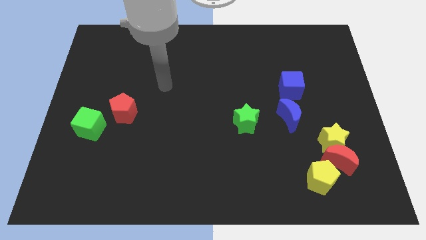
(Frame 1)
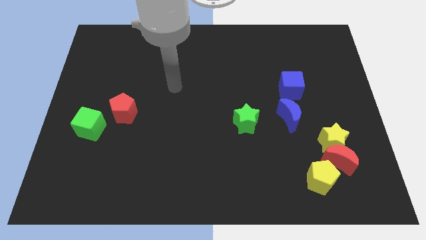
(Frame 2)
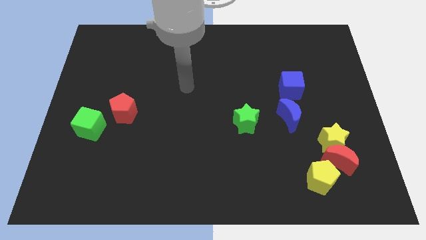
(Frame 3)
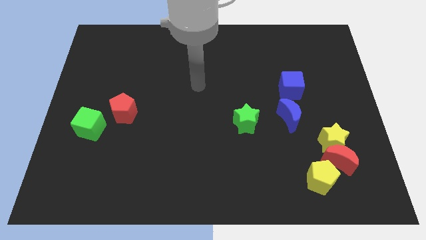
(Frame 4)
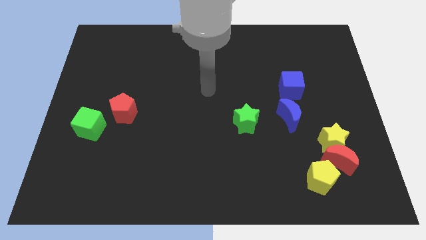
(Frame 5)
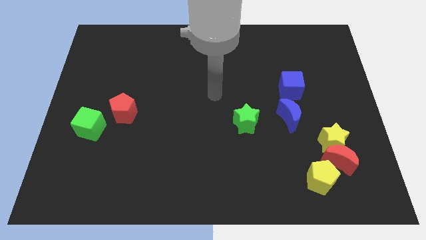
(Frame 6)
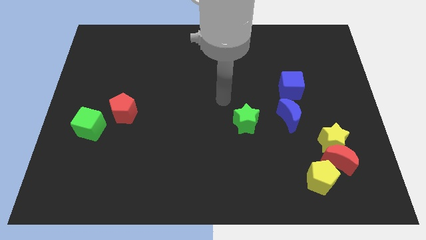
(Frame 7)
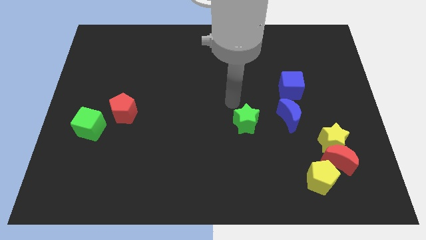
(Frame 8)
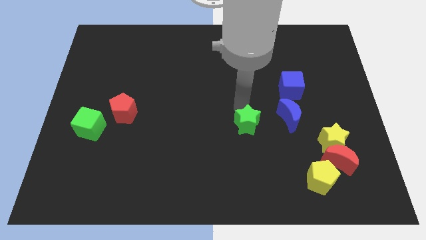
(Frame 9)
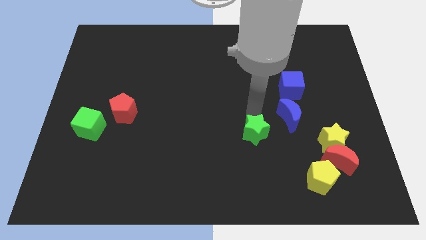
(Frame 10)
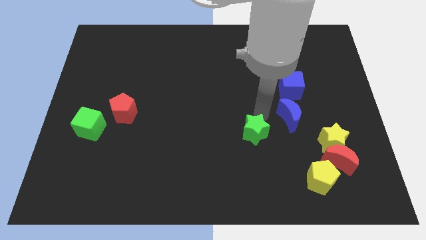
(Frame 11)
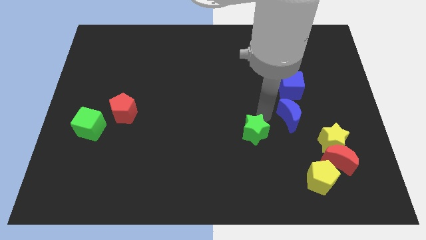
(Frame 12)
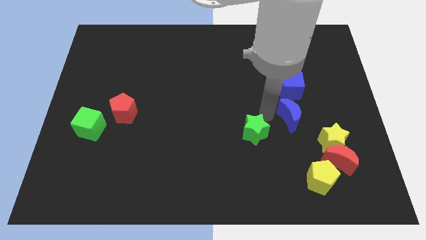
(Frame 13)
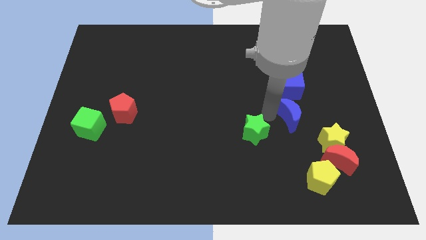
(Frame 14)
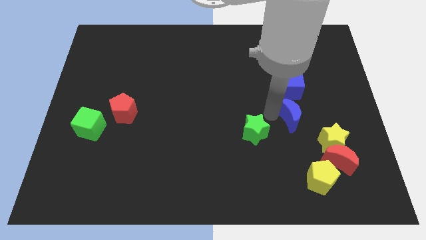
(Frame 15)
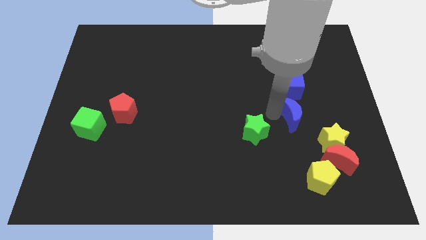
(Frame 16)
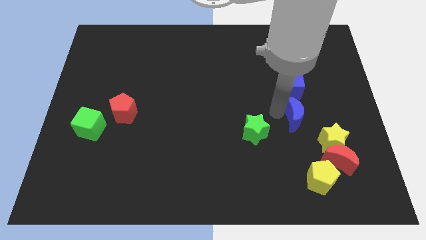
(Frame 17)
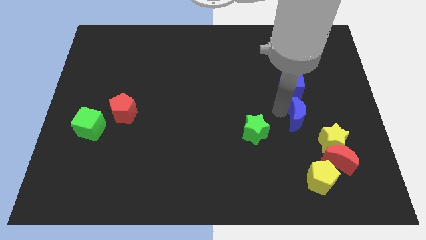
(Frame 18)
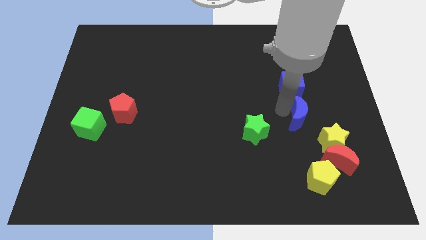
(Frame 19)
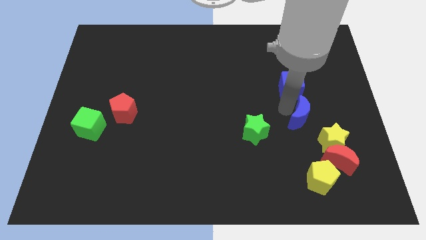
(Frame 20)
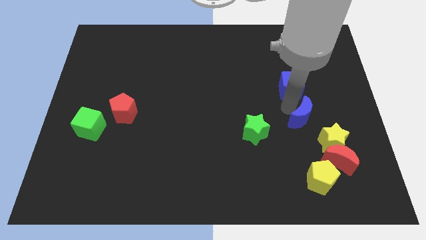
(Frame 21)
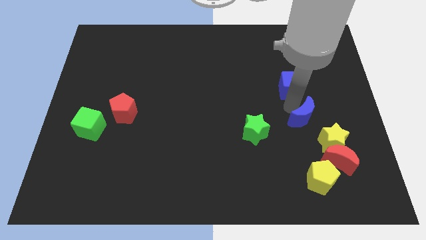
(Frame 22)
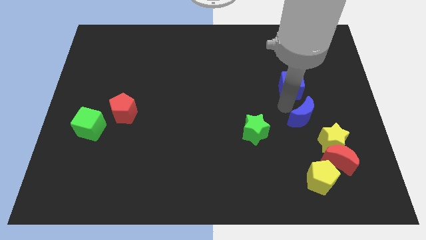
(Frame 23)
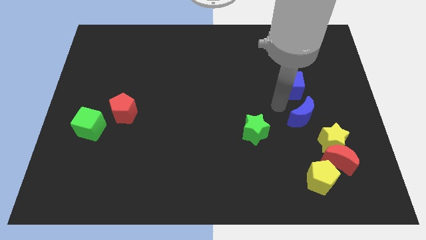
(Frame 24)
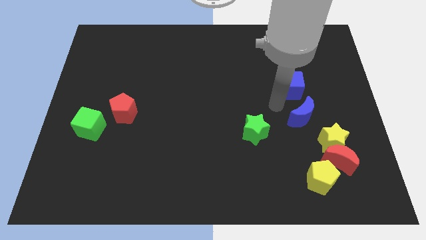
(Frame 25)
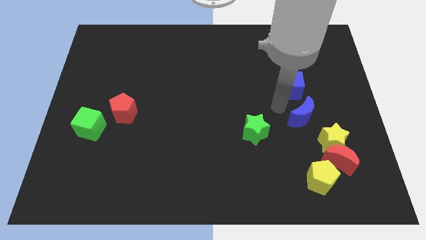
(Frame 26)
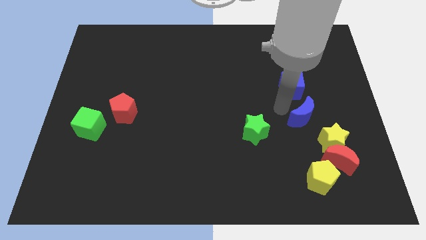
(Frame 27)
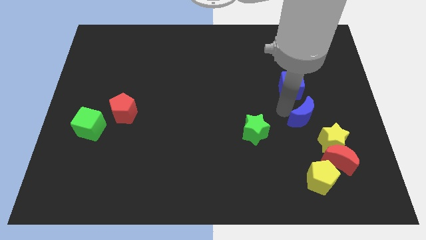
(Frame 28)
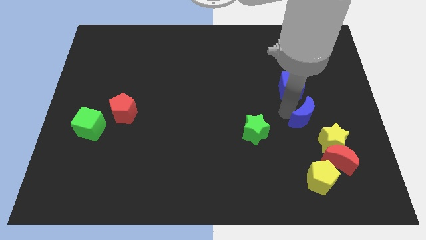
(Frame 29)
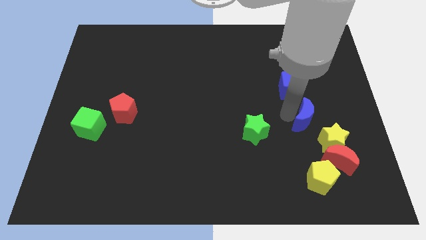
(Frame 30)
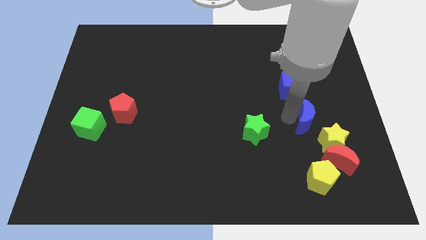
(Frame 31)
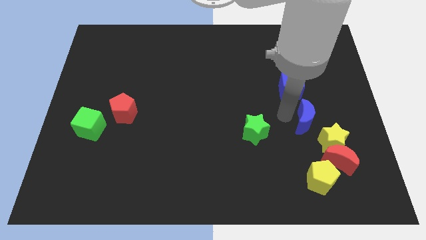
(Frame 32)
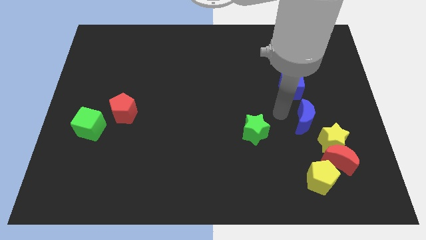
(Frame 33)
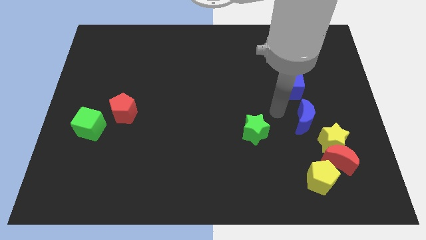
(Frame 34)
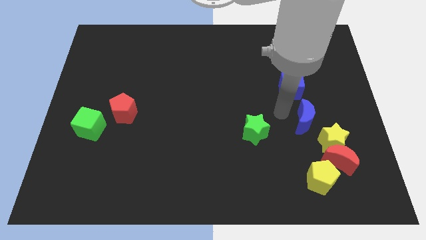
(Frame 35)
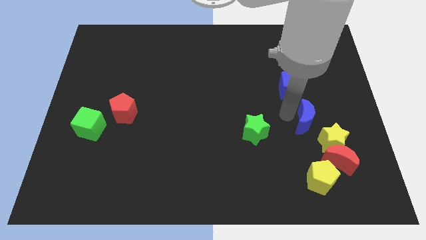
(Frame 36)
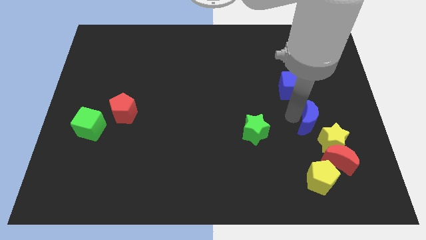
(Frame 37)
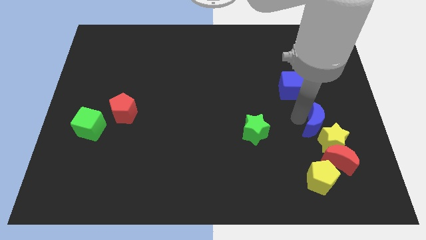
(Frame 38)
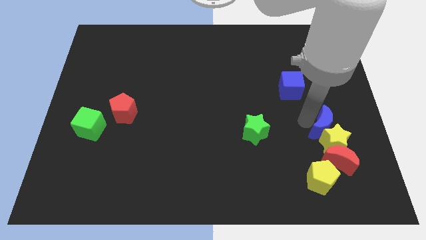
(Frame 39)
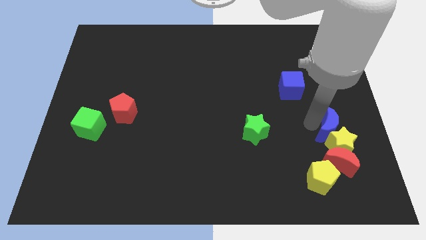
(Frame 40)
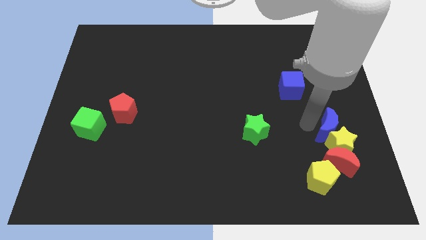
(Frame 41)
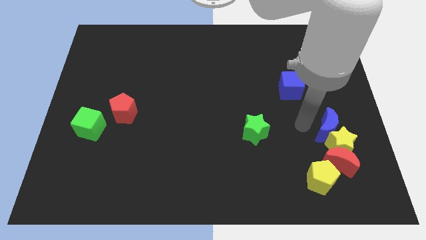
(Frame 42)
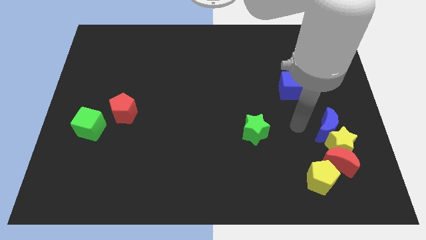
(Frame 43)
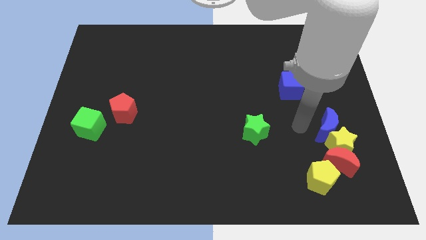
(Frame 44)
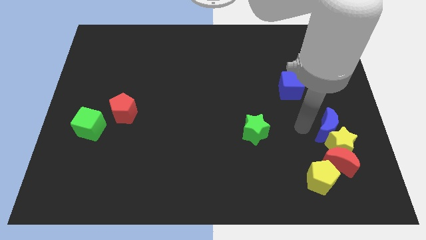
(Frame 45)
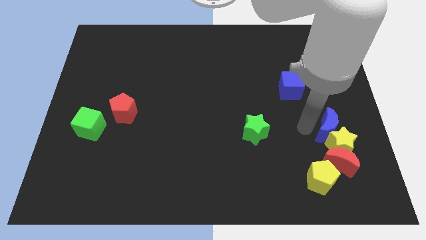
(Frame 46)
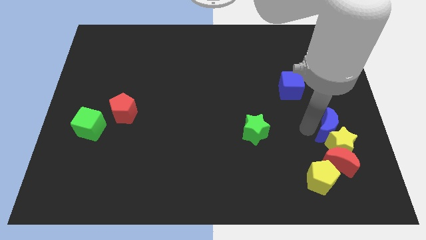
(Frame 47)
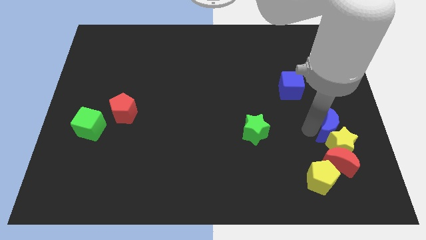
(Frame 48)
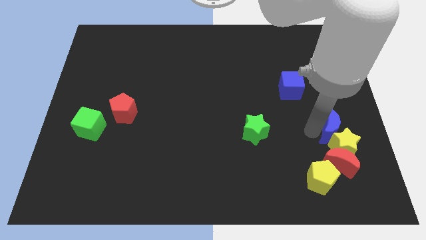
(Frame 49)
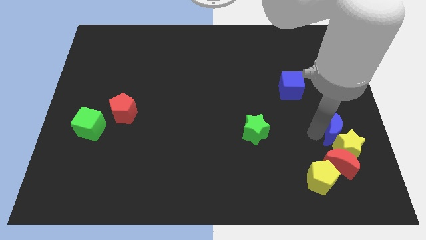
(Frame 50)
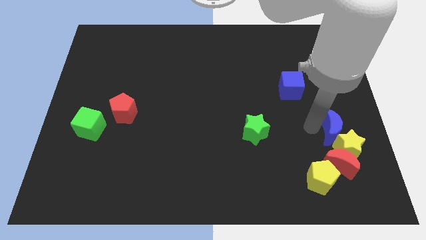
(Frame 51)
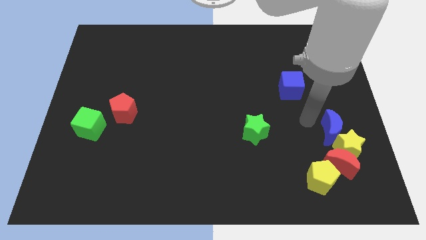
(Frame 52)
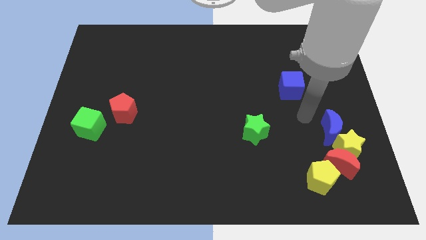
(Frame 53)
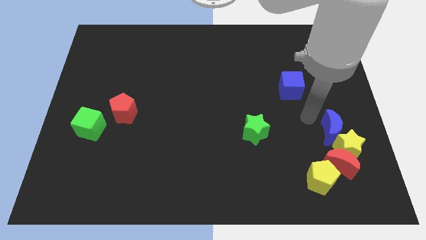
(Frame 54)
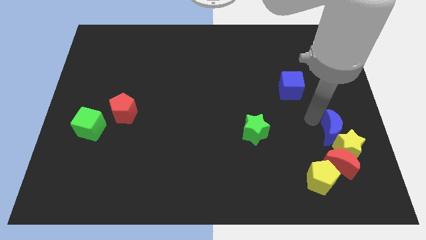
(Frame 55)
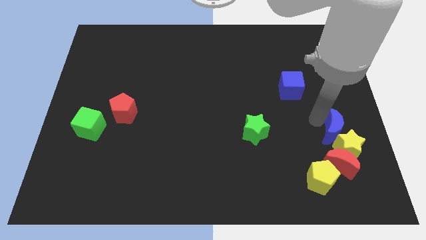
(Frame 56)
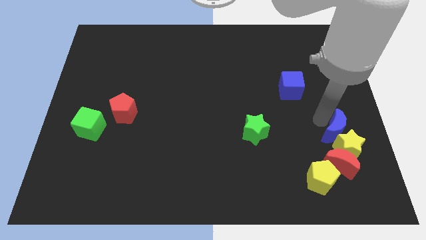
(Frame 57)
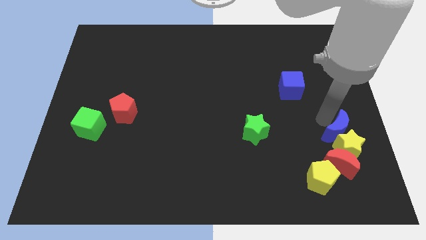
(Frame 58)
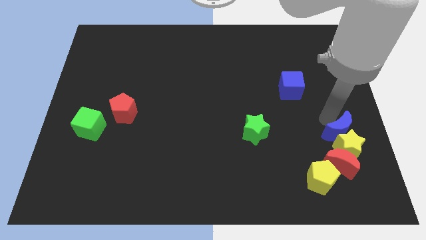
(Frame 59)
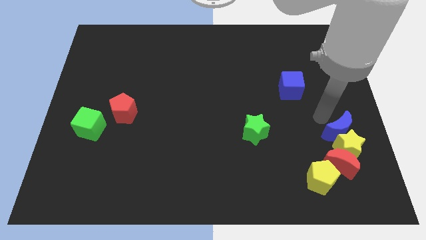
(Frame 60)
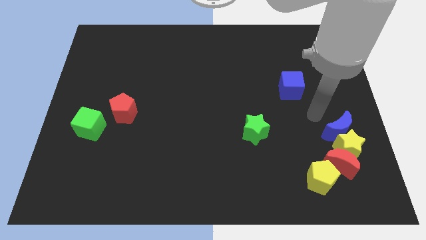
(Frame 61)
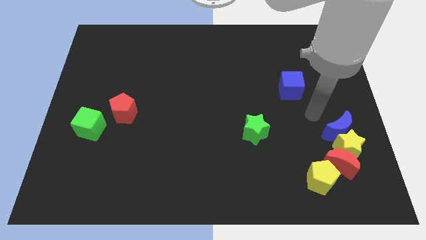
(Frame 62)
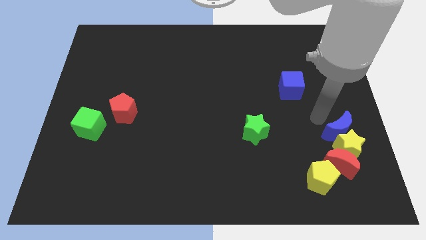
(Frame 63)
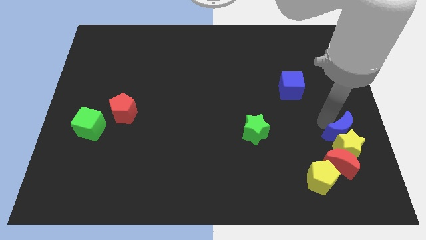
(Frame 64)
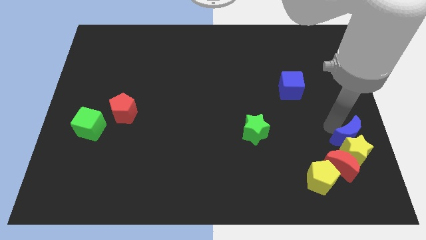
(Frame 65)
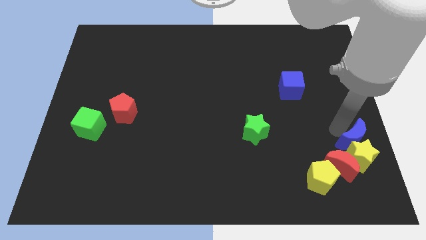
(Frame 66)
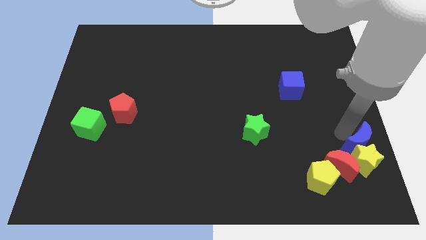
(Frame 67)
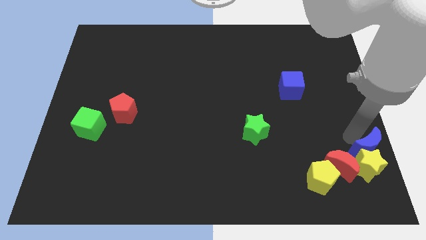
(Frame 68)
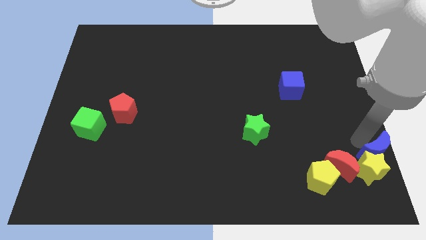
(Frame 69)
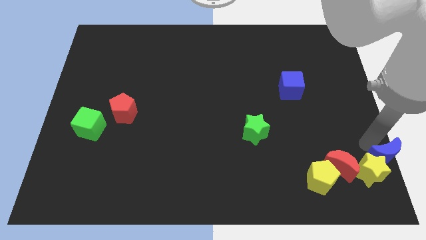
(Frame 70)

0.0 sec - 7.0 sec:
push the blue moon to the lower right corner

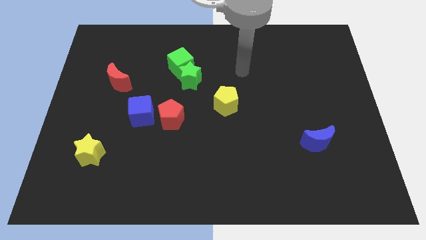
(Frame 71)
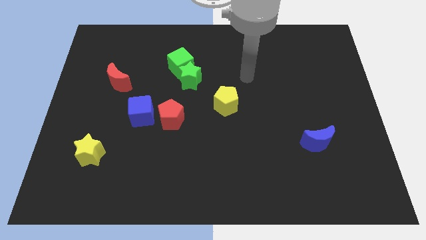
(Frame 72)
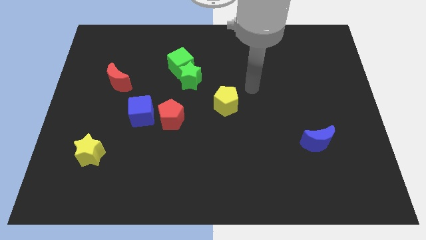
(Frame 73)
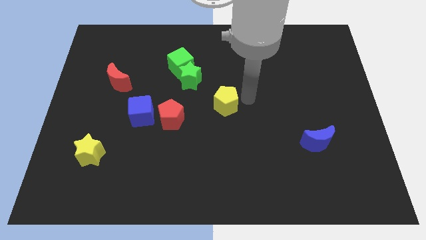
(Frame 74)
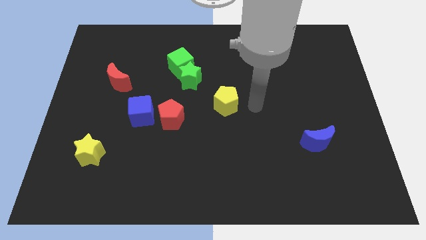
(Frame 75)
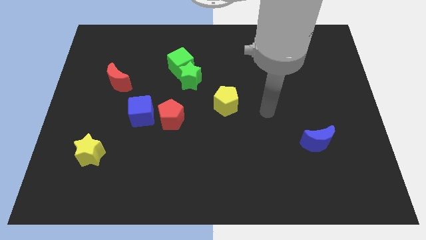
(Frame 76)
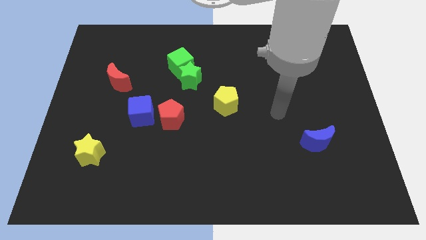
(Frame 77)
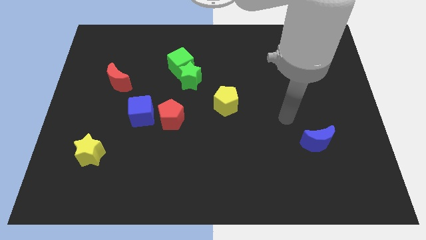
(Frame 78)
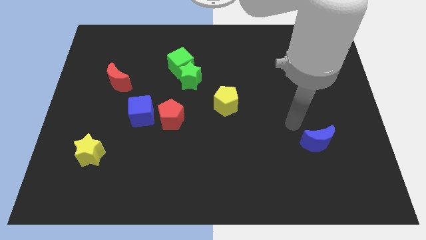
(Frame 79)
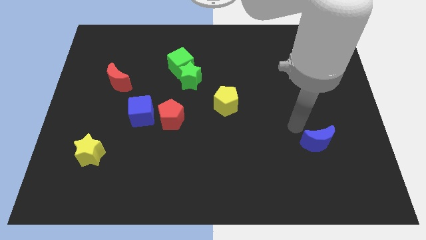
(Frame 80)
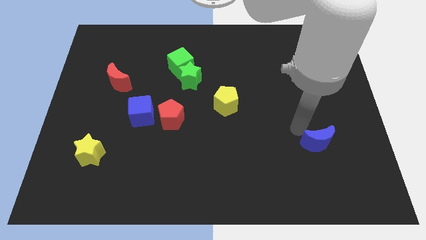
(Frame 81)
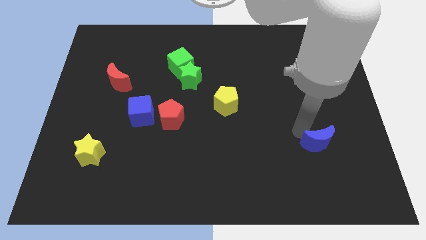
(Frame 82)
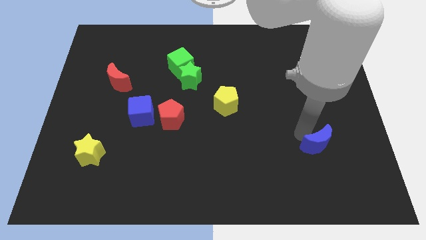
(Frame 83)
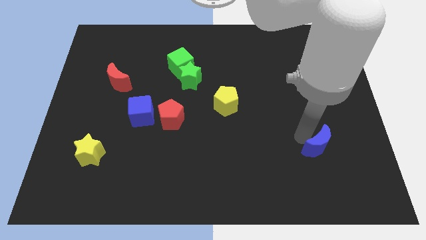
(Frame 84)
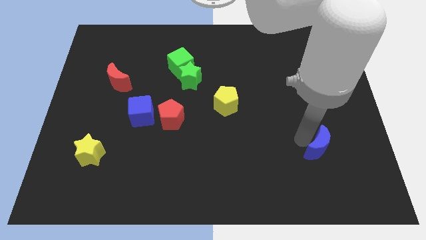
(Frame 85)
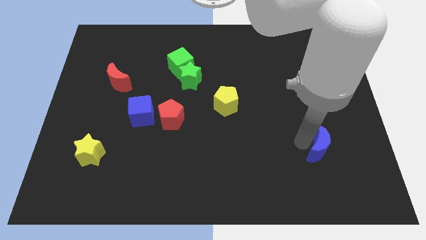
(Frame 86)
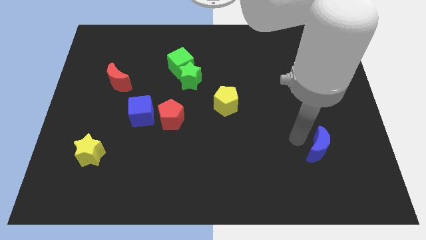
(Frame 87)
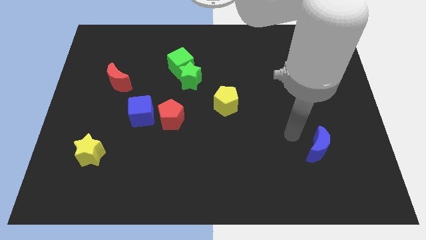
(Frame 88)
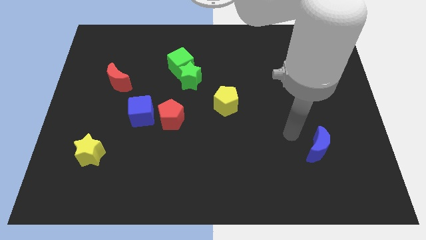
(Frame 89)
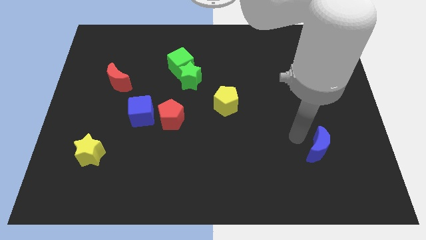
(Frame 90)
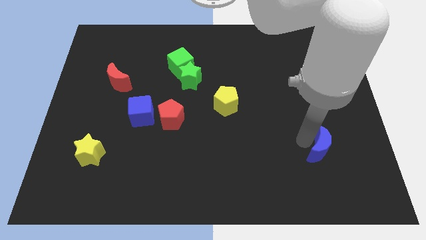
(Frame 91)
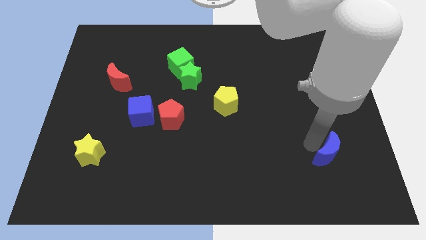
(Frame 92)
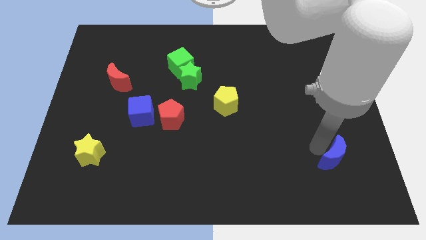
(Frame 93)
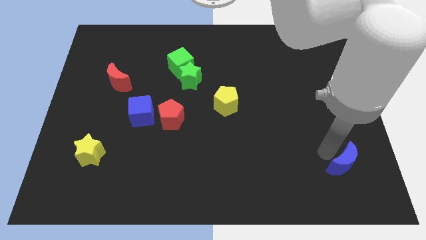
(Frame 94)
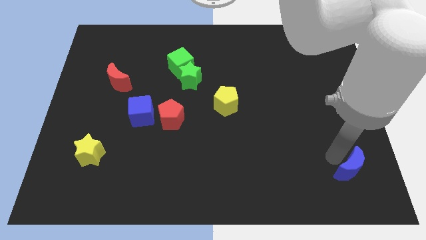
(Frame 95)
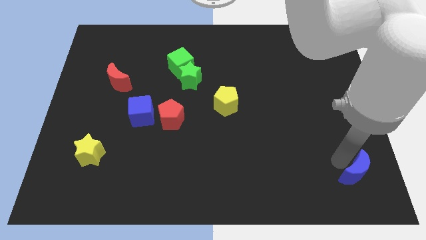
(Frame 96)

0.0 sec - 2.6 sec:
move the blue moon to the bottom right
